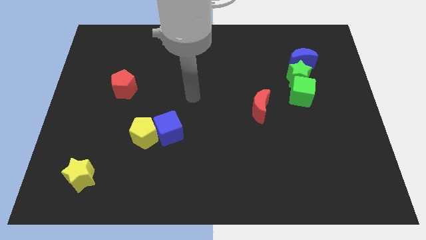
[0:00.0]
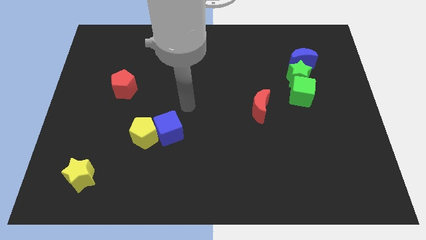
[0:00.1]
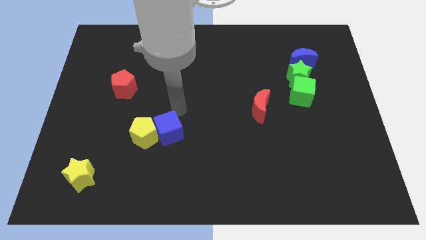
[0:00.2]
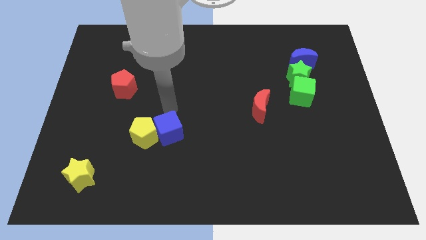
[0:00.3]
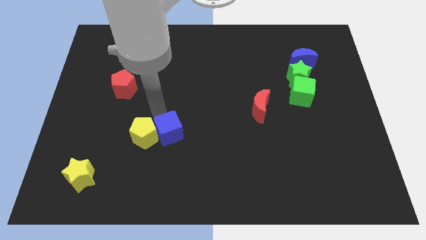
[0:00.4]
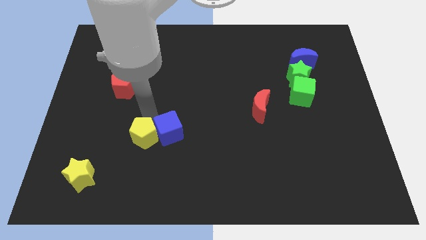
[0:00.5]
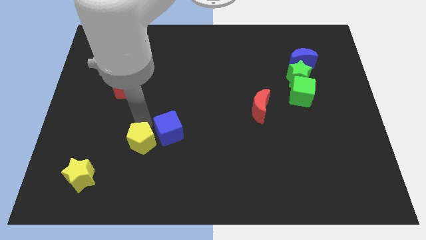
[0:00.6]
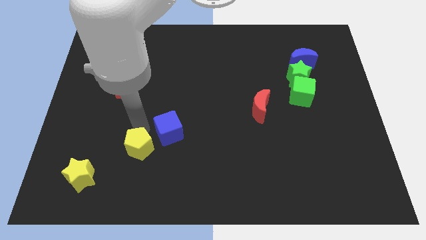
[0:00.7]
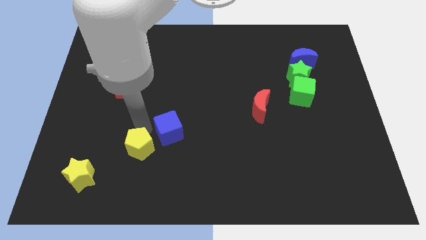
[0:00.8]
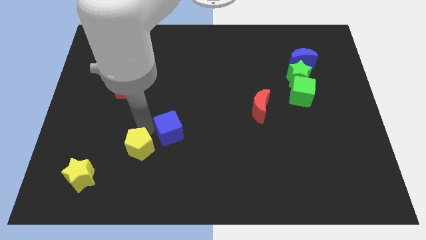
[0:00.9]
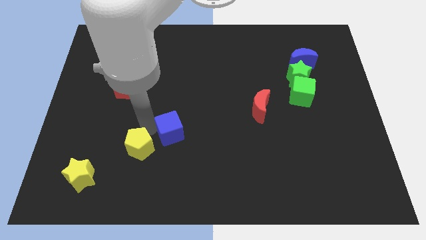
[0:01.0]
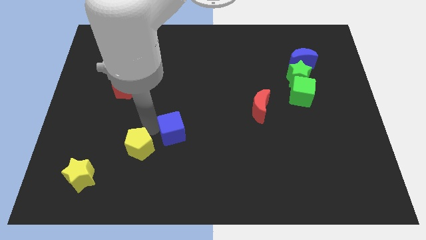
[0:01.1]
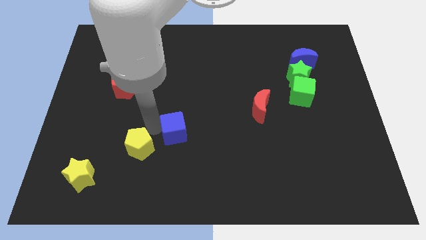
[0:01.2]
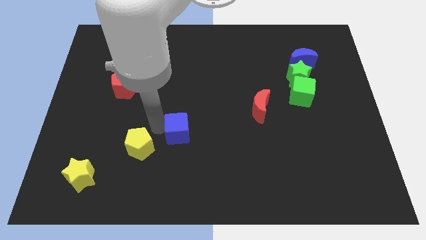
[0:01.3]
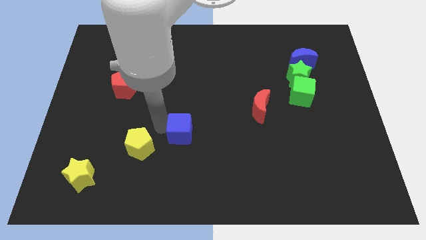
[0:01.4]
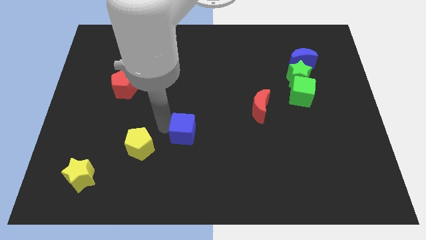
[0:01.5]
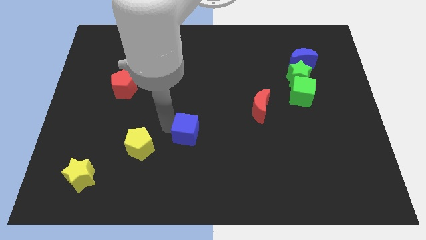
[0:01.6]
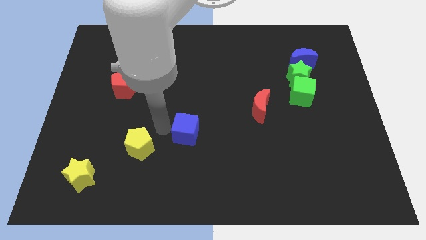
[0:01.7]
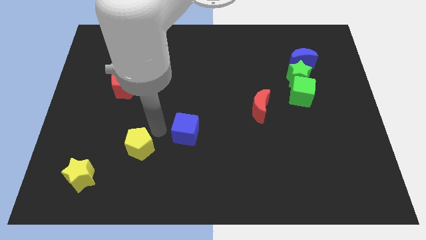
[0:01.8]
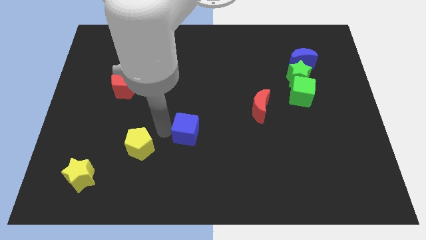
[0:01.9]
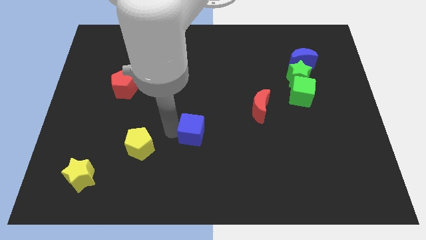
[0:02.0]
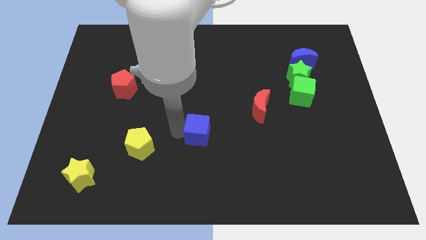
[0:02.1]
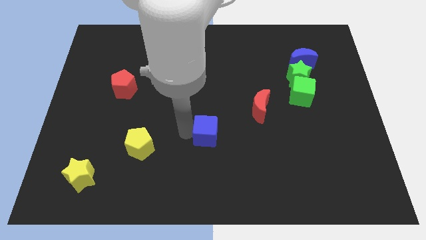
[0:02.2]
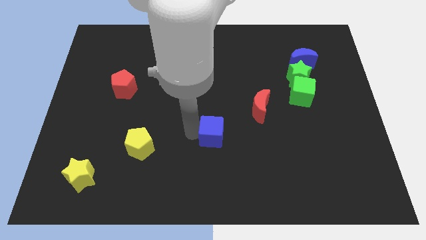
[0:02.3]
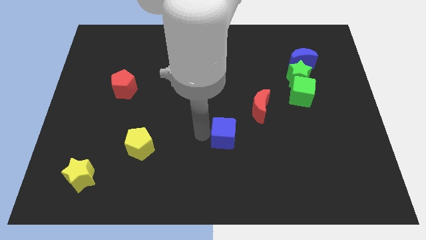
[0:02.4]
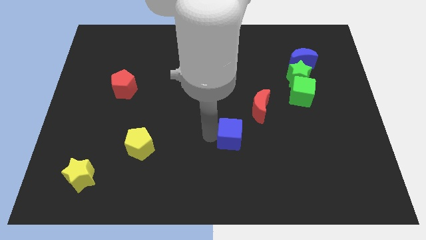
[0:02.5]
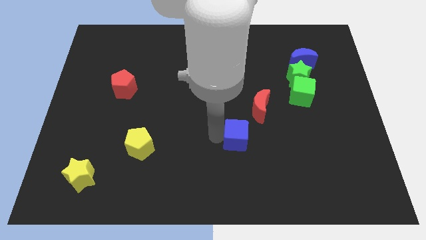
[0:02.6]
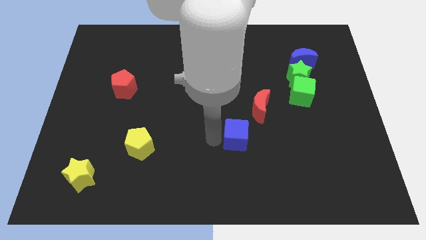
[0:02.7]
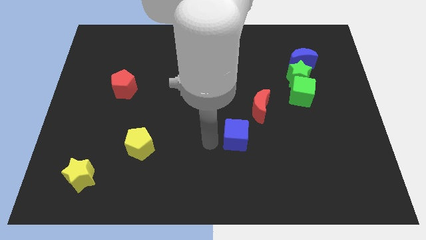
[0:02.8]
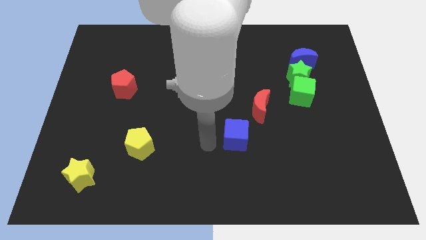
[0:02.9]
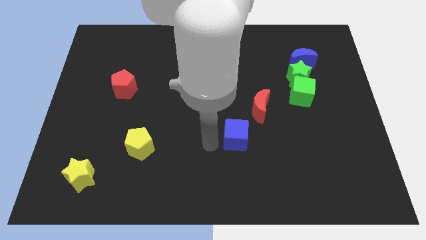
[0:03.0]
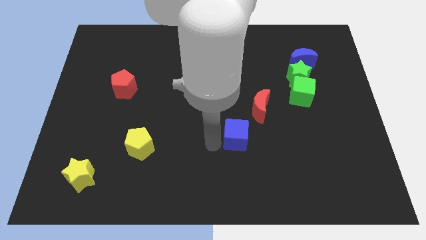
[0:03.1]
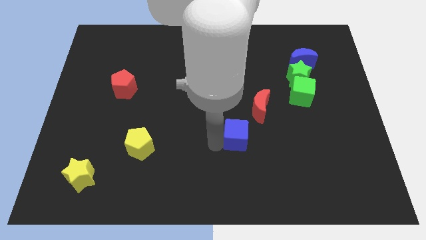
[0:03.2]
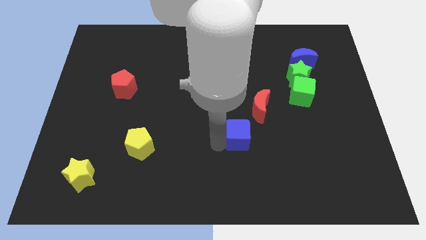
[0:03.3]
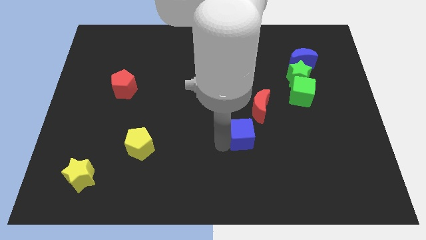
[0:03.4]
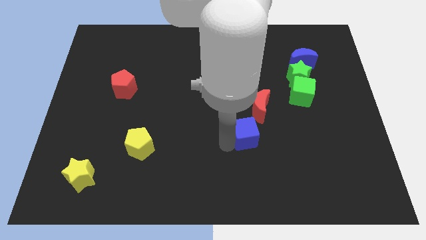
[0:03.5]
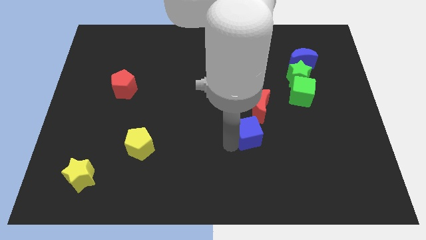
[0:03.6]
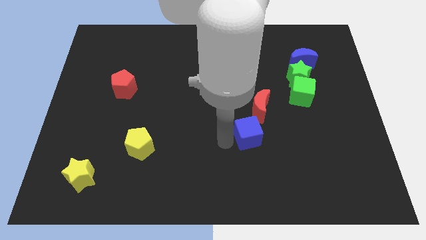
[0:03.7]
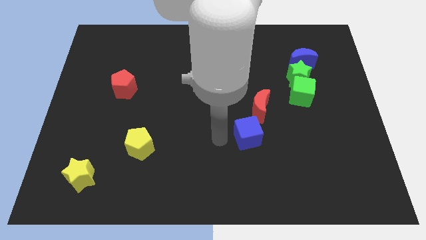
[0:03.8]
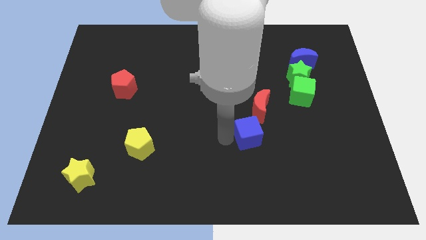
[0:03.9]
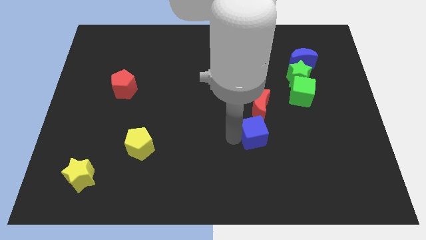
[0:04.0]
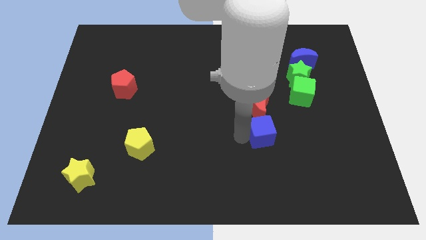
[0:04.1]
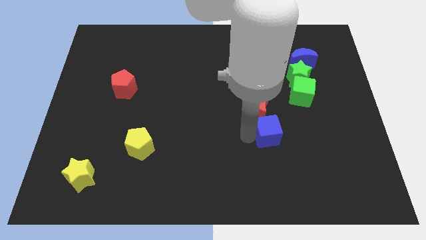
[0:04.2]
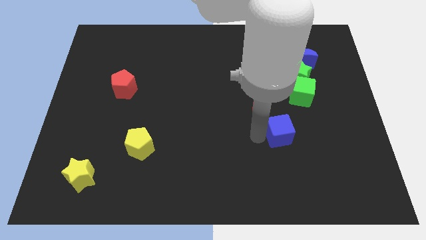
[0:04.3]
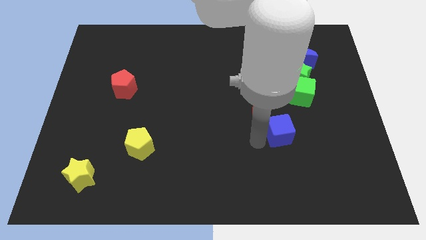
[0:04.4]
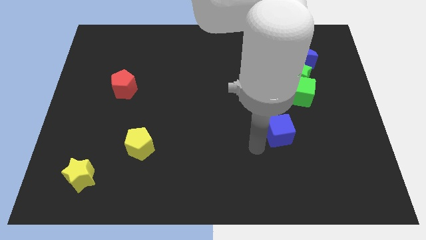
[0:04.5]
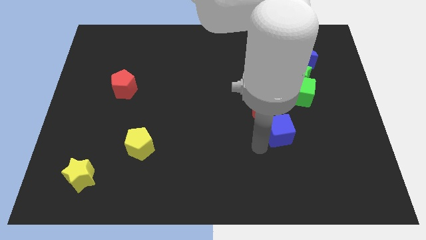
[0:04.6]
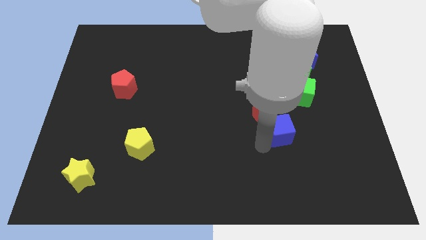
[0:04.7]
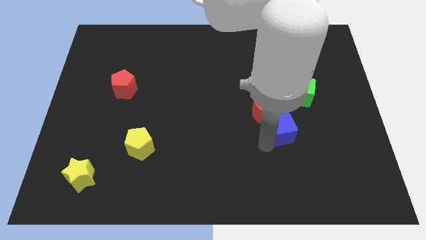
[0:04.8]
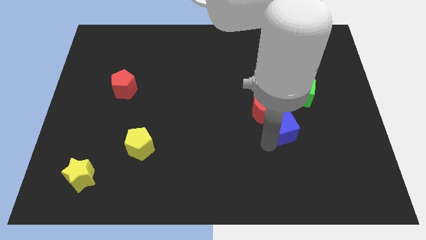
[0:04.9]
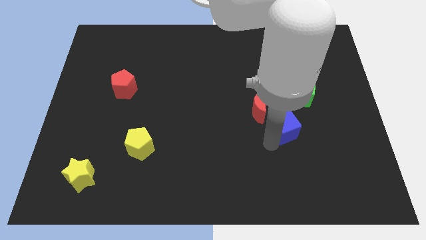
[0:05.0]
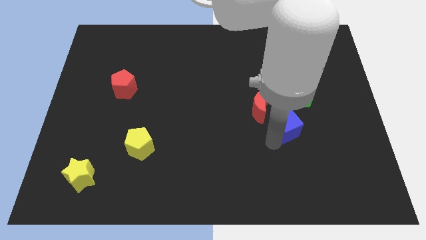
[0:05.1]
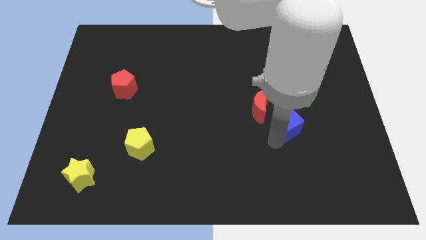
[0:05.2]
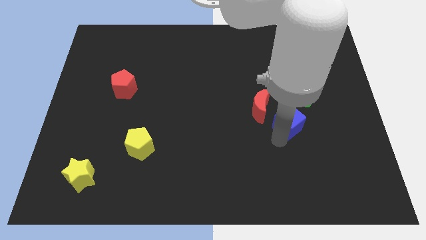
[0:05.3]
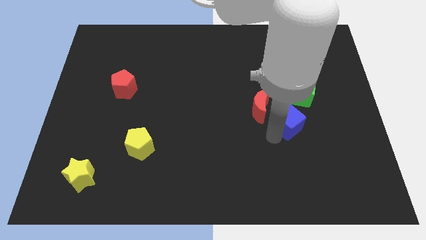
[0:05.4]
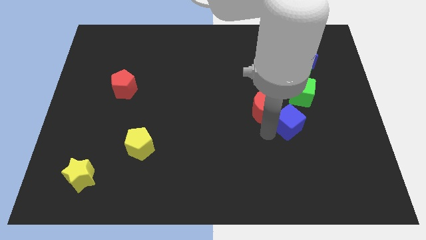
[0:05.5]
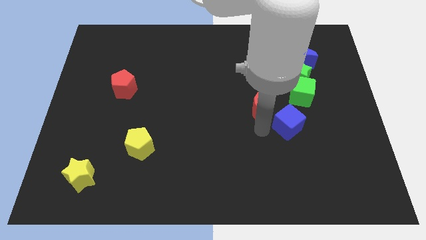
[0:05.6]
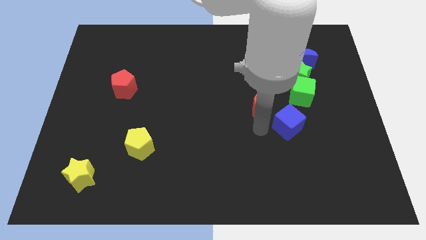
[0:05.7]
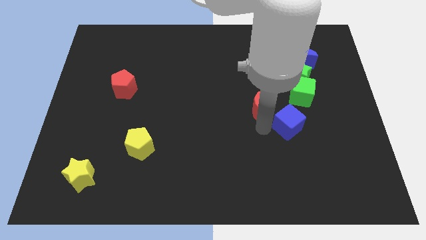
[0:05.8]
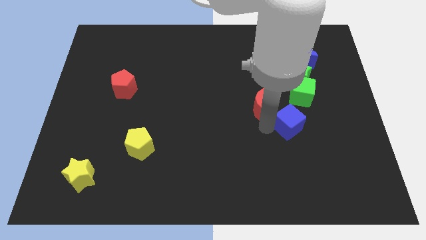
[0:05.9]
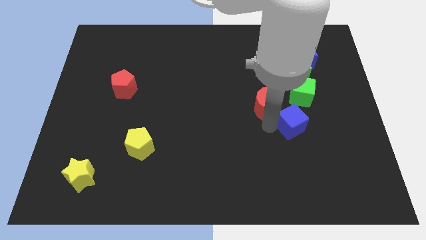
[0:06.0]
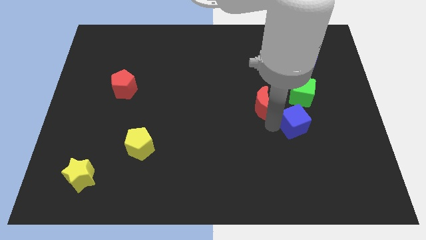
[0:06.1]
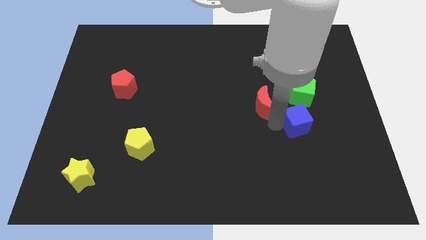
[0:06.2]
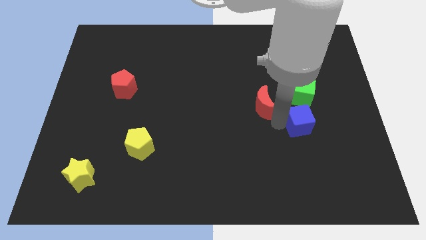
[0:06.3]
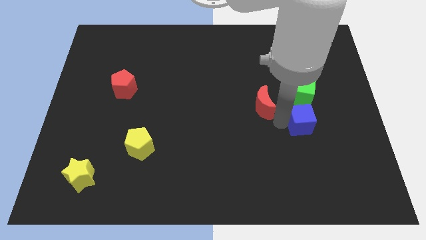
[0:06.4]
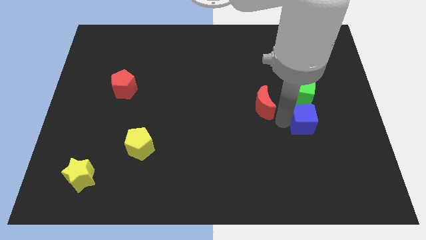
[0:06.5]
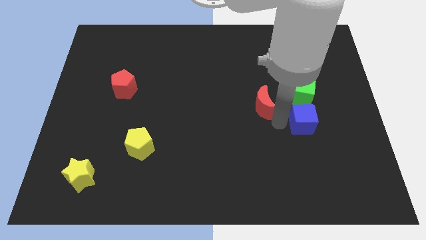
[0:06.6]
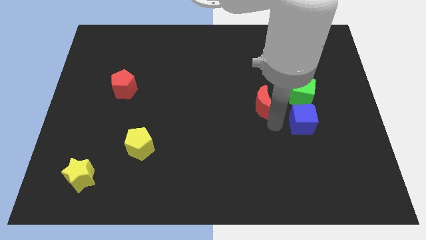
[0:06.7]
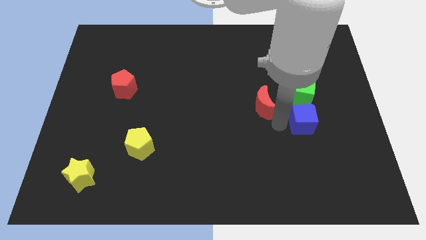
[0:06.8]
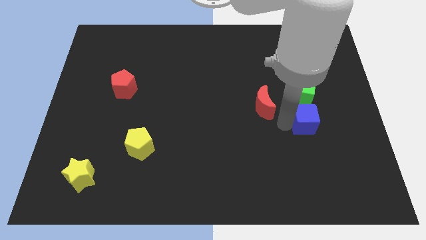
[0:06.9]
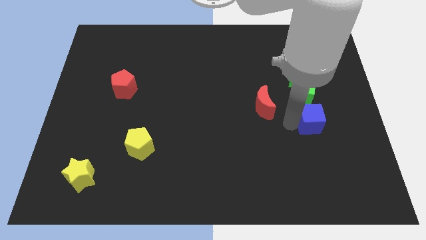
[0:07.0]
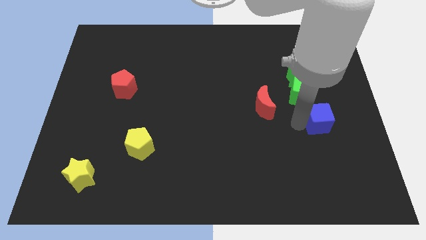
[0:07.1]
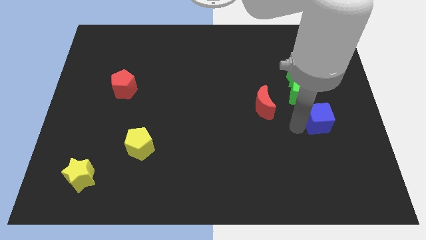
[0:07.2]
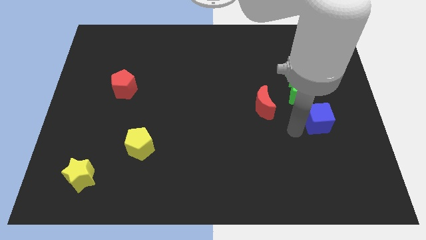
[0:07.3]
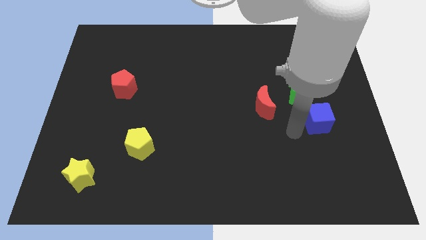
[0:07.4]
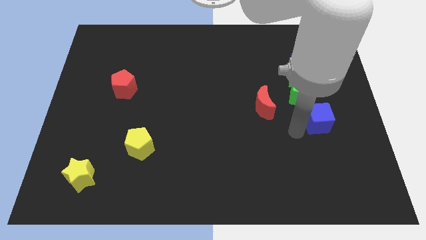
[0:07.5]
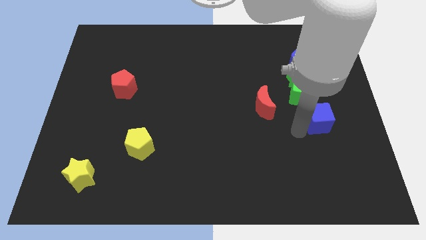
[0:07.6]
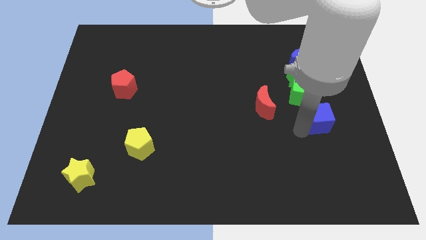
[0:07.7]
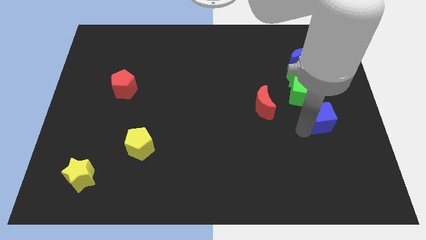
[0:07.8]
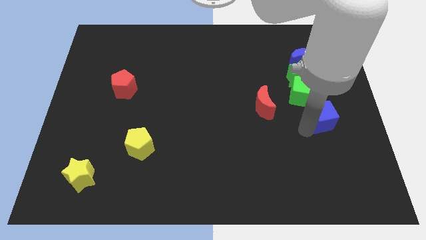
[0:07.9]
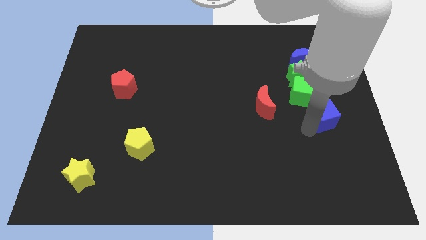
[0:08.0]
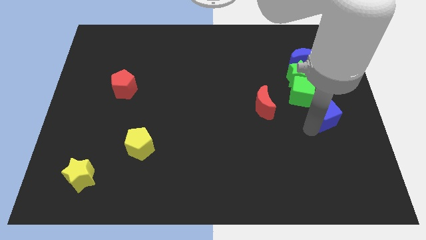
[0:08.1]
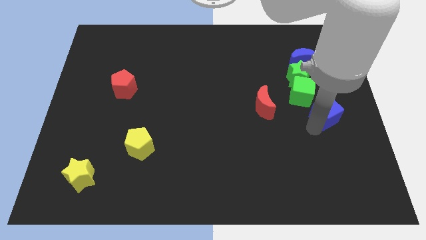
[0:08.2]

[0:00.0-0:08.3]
push the blue cube to the right side
